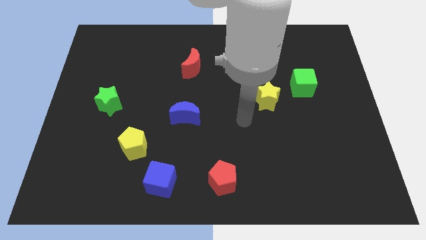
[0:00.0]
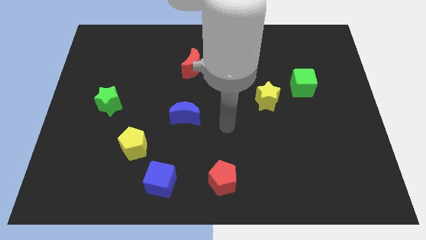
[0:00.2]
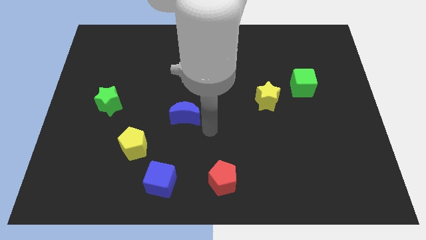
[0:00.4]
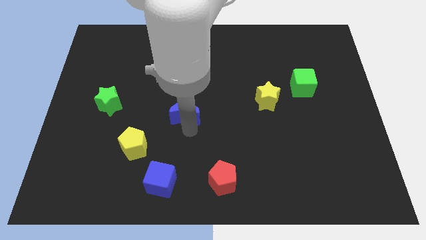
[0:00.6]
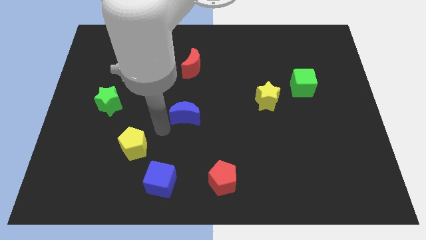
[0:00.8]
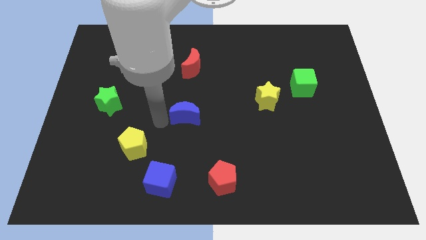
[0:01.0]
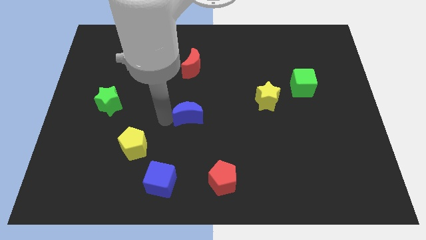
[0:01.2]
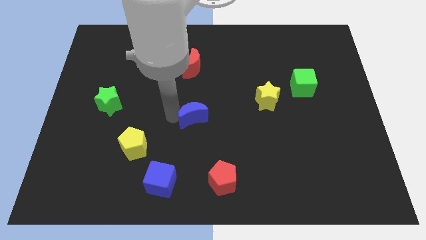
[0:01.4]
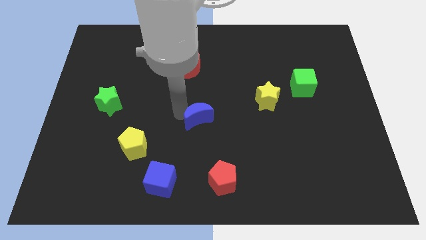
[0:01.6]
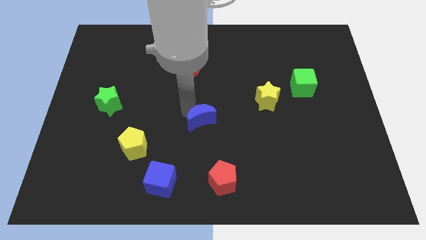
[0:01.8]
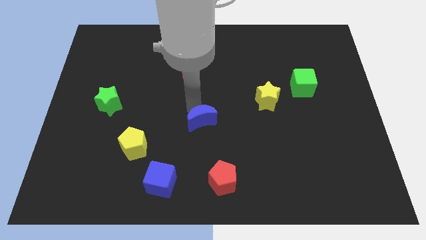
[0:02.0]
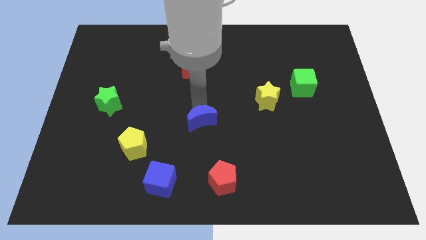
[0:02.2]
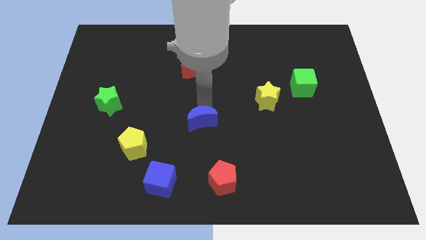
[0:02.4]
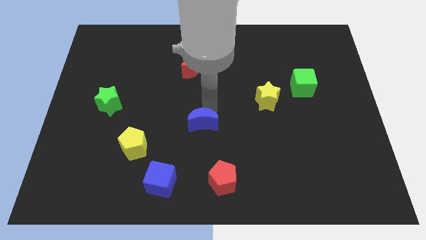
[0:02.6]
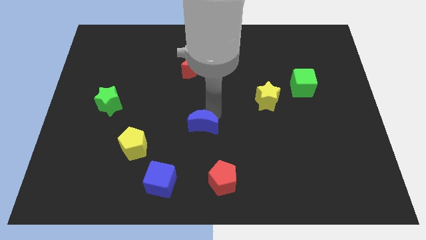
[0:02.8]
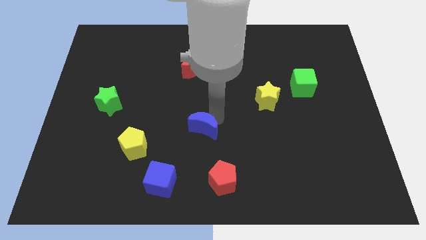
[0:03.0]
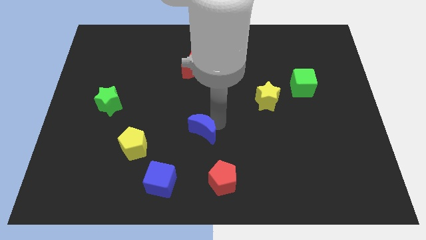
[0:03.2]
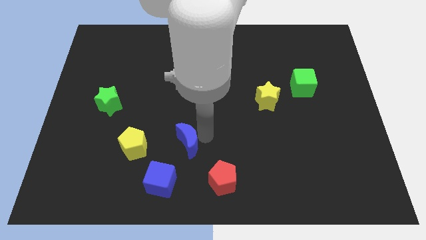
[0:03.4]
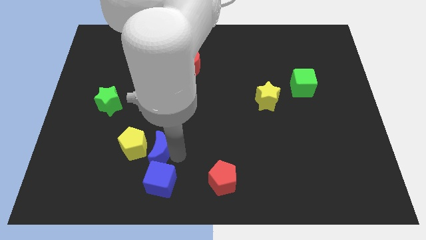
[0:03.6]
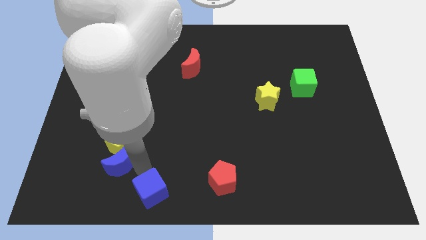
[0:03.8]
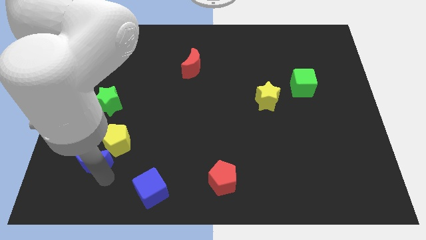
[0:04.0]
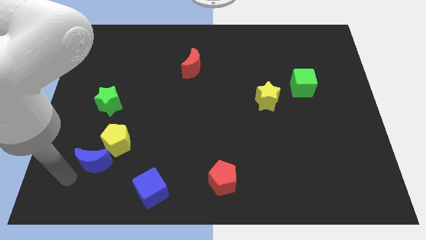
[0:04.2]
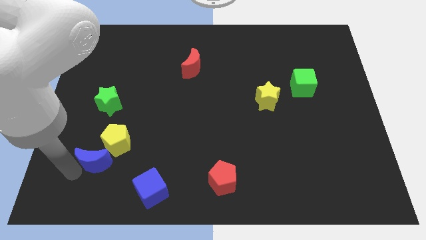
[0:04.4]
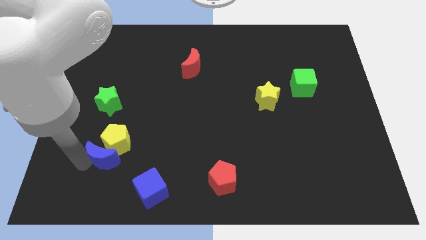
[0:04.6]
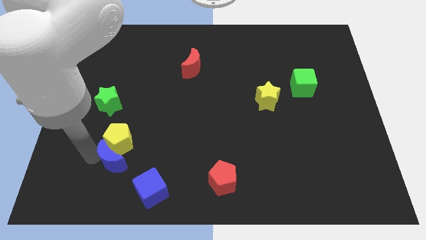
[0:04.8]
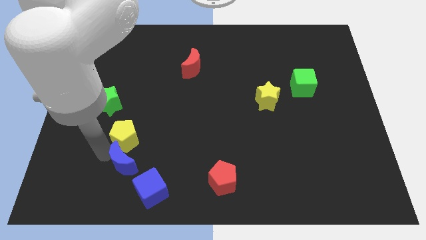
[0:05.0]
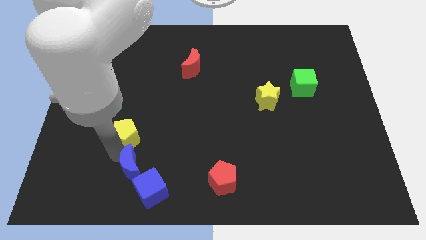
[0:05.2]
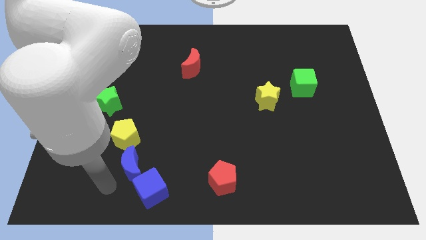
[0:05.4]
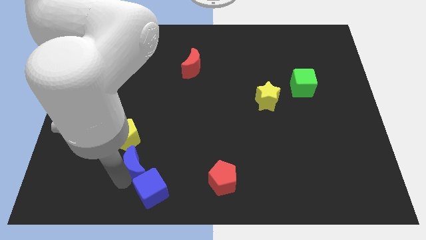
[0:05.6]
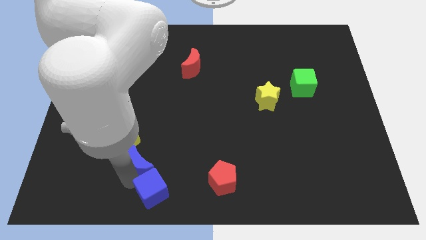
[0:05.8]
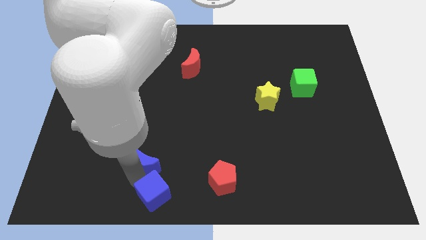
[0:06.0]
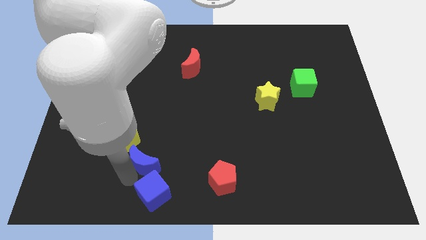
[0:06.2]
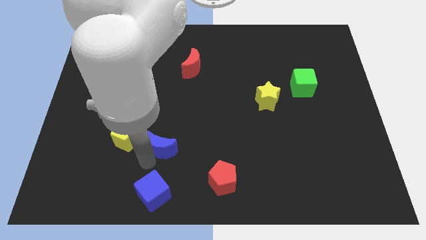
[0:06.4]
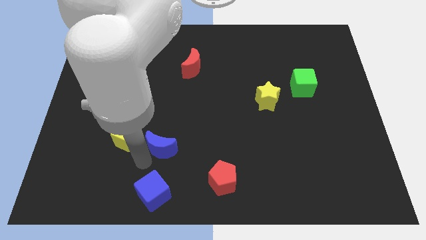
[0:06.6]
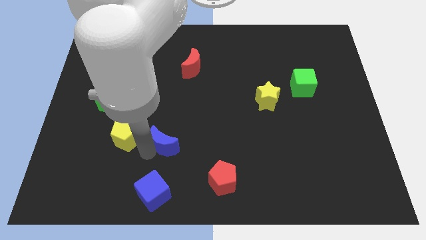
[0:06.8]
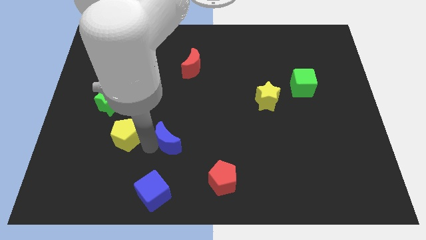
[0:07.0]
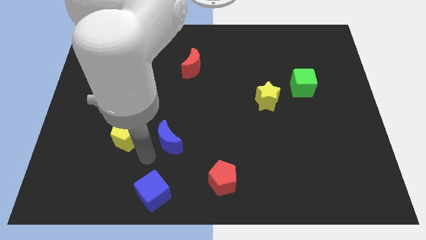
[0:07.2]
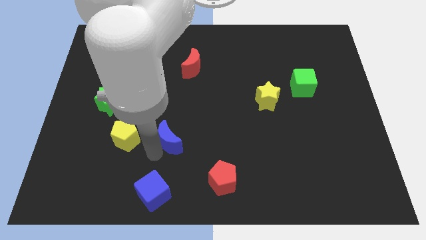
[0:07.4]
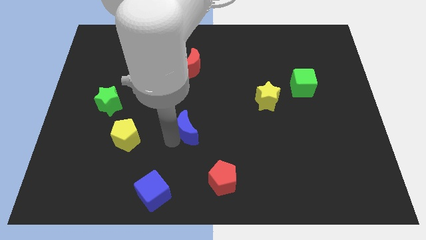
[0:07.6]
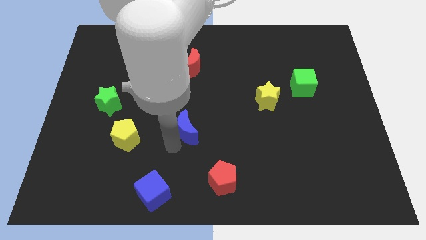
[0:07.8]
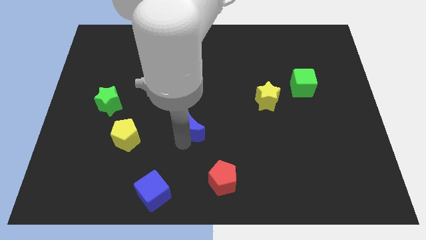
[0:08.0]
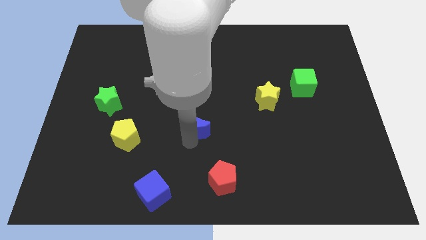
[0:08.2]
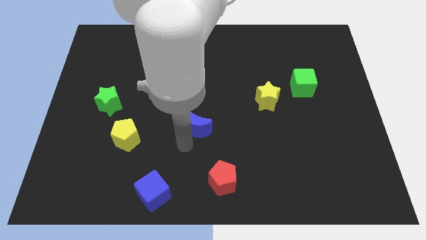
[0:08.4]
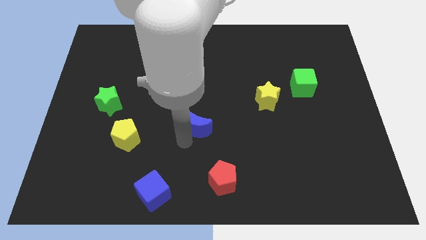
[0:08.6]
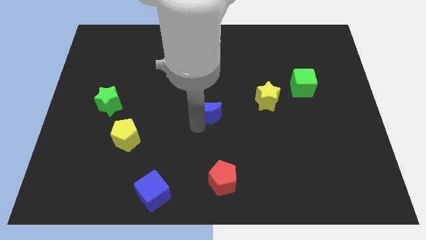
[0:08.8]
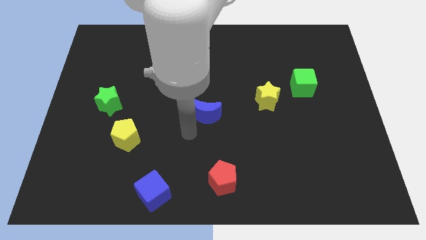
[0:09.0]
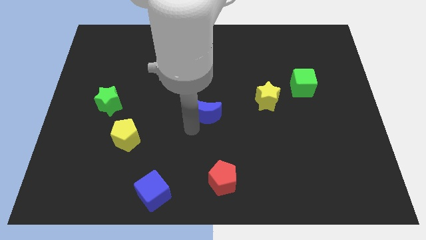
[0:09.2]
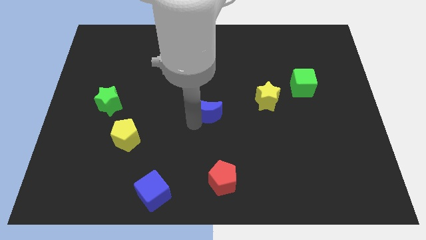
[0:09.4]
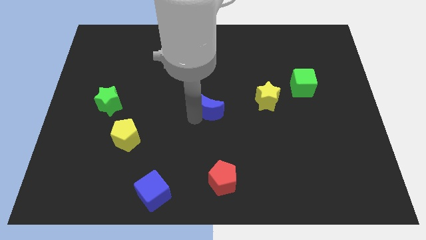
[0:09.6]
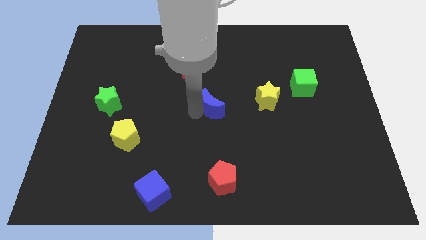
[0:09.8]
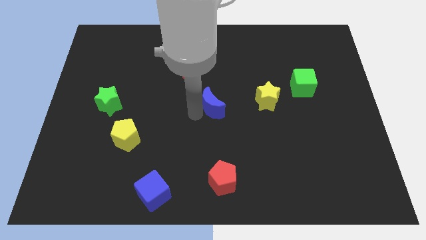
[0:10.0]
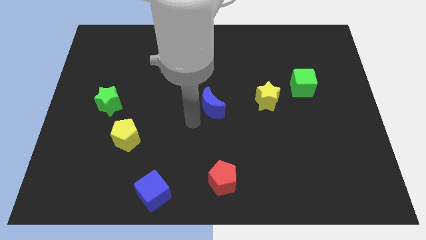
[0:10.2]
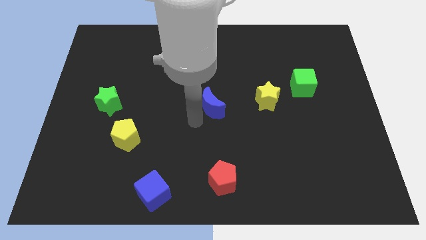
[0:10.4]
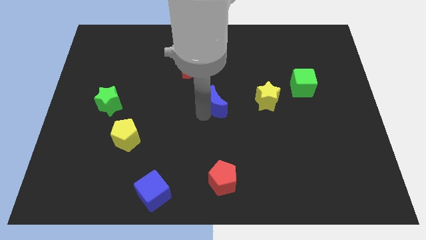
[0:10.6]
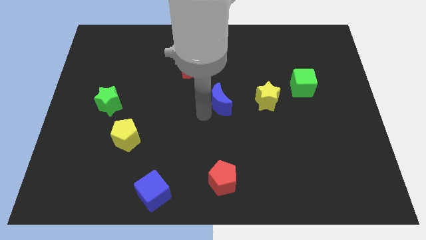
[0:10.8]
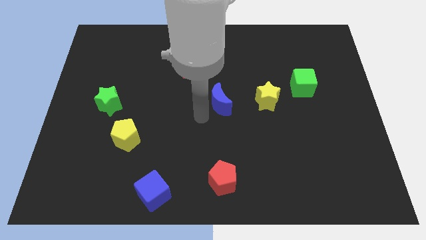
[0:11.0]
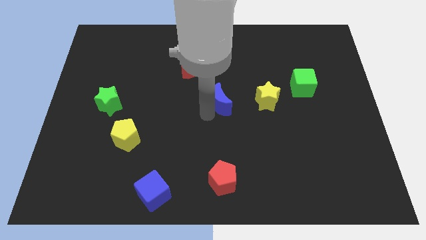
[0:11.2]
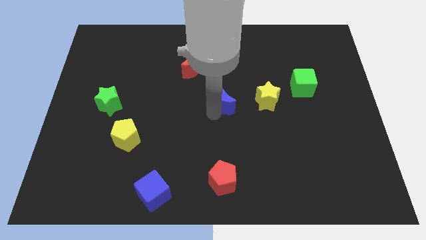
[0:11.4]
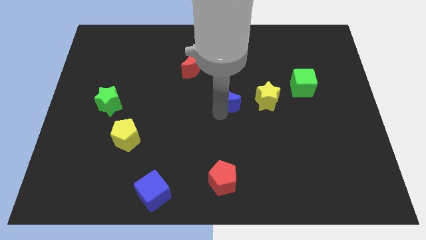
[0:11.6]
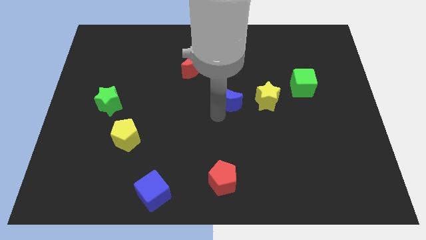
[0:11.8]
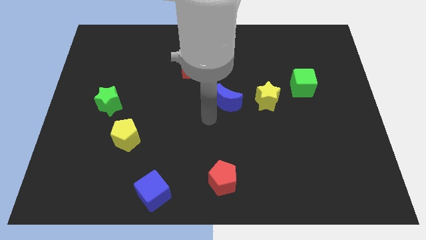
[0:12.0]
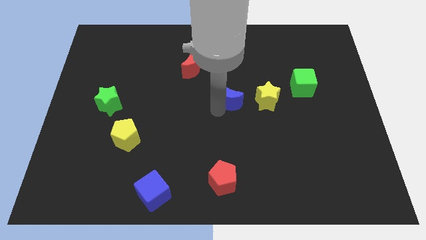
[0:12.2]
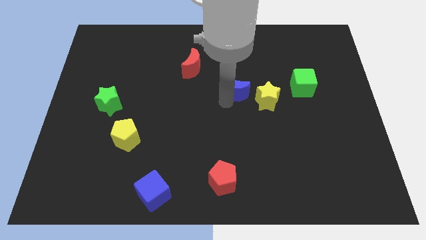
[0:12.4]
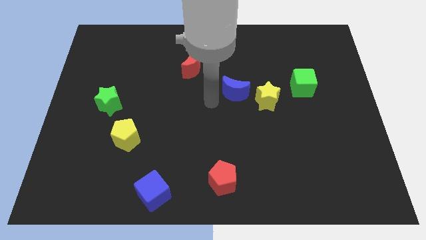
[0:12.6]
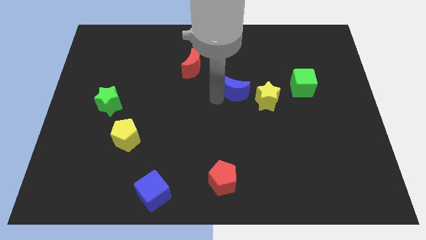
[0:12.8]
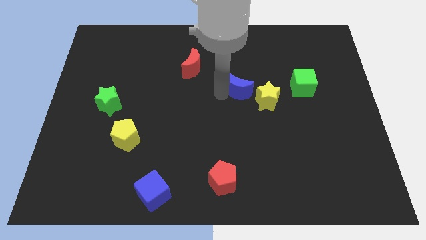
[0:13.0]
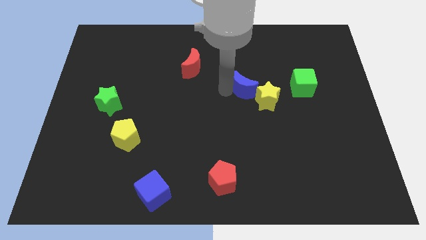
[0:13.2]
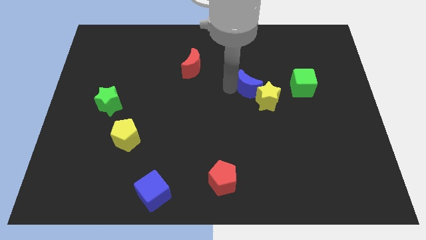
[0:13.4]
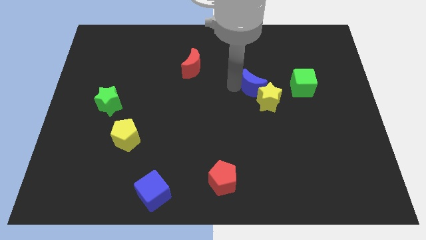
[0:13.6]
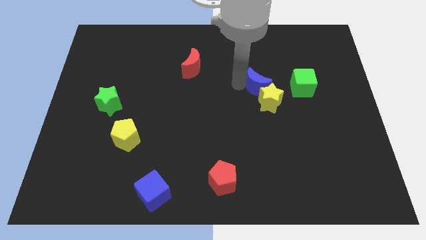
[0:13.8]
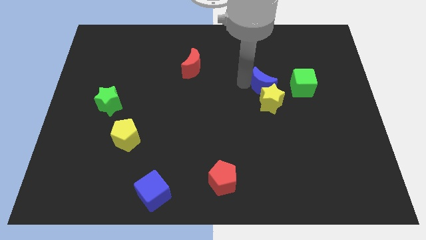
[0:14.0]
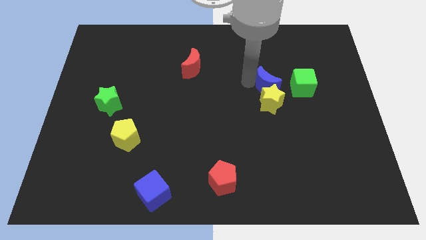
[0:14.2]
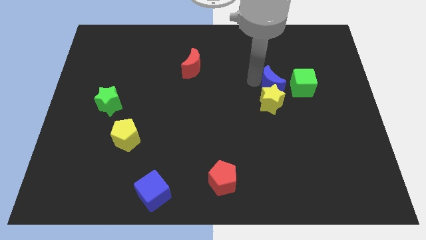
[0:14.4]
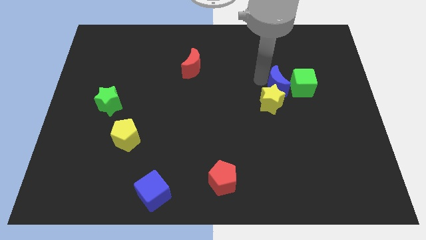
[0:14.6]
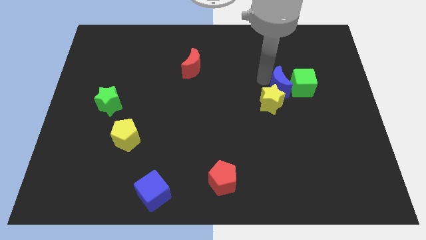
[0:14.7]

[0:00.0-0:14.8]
move the blue moon close to the green cube
